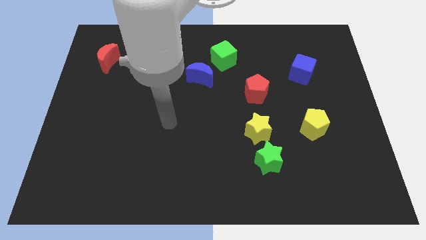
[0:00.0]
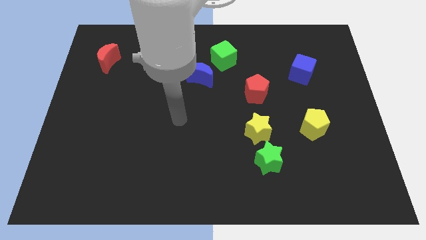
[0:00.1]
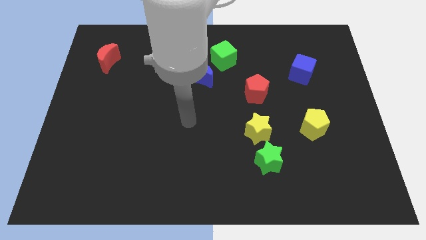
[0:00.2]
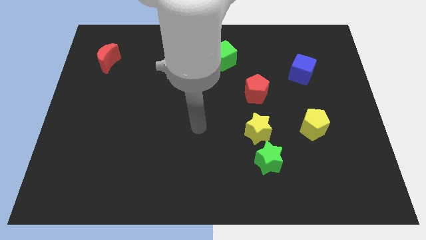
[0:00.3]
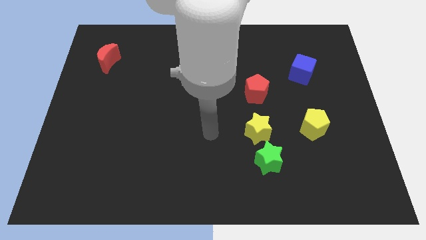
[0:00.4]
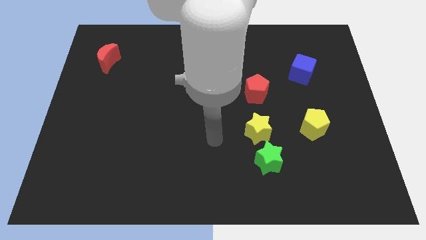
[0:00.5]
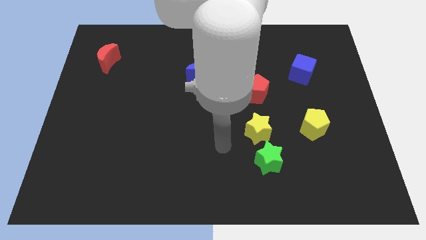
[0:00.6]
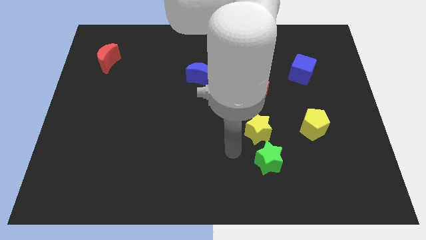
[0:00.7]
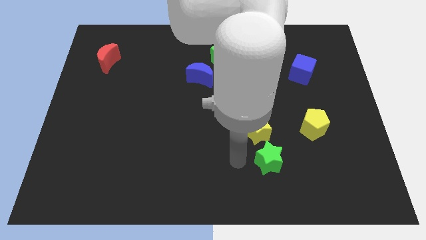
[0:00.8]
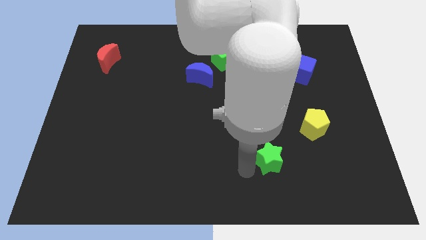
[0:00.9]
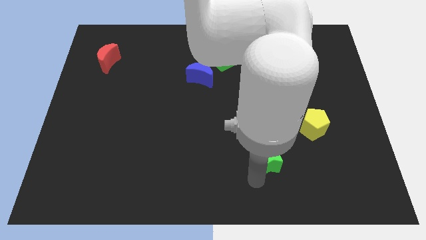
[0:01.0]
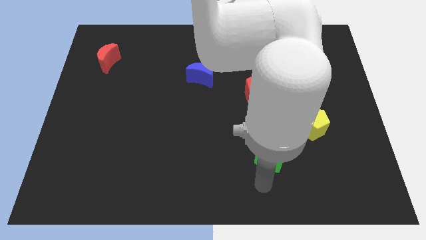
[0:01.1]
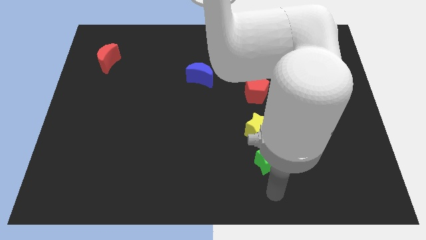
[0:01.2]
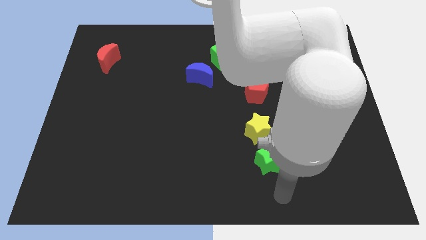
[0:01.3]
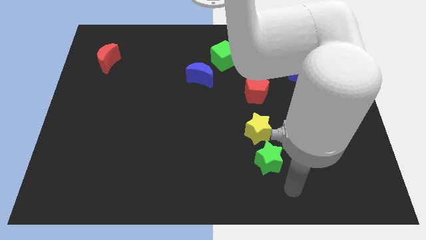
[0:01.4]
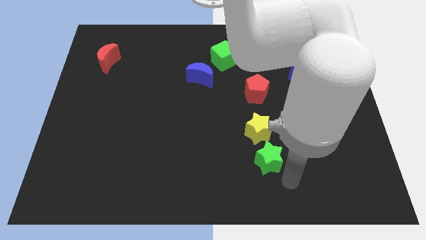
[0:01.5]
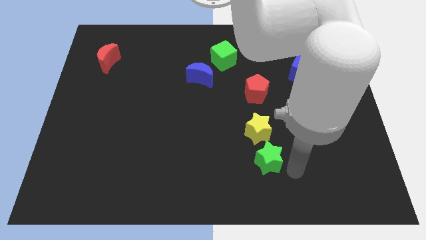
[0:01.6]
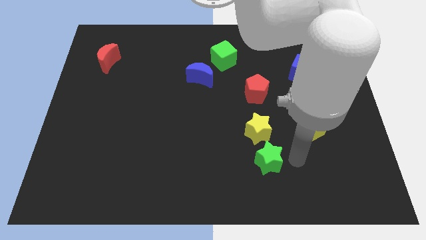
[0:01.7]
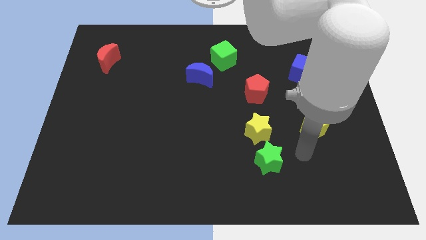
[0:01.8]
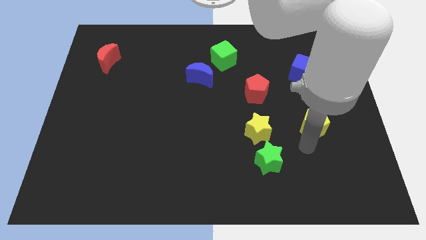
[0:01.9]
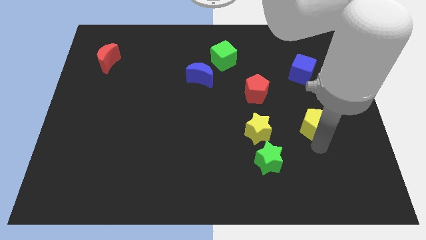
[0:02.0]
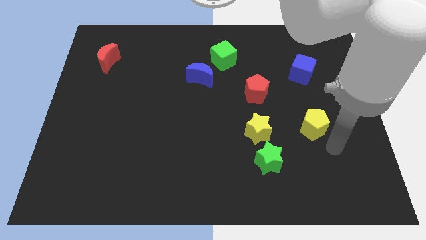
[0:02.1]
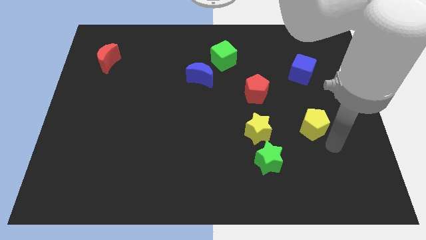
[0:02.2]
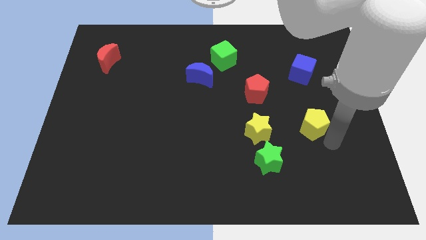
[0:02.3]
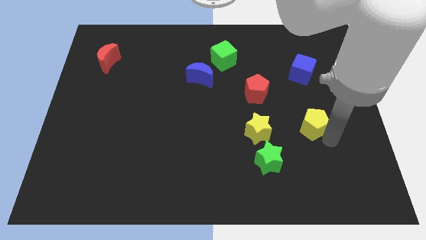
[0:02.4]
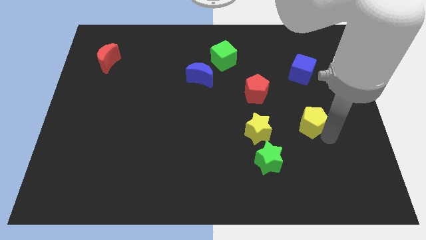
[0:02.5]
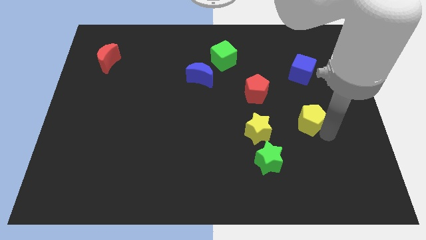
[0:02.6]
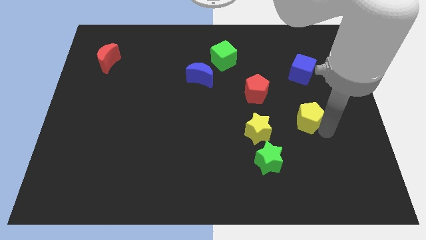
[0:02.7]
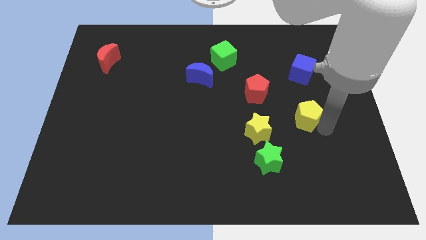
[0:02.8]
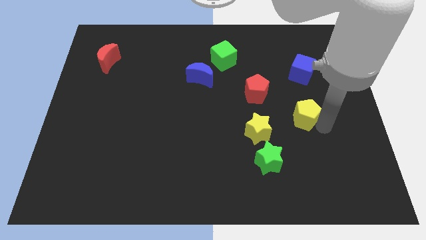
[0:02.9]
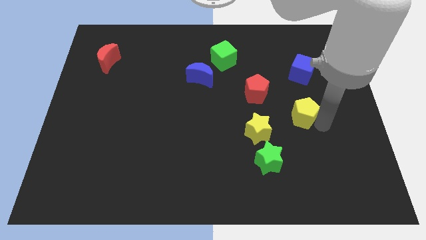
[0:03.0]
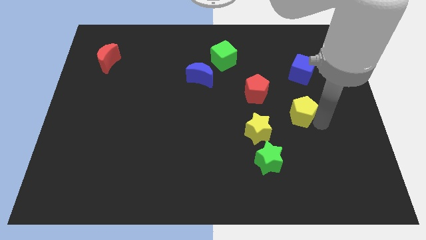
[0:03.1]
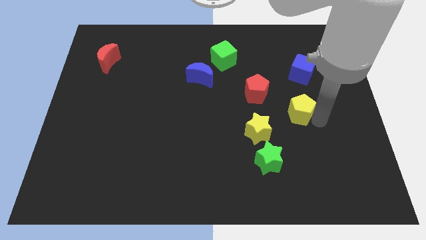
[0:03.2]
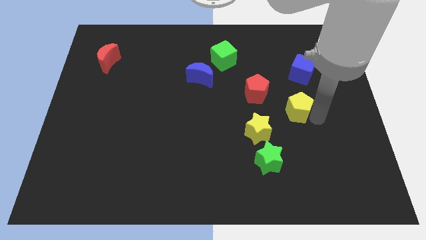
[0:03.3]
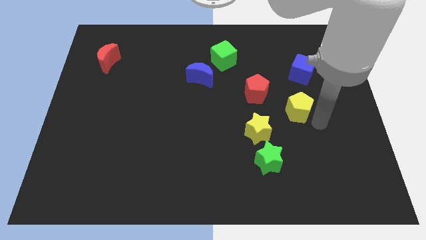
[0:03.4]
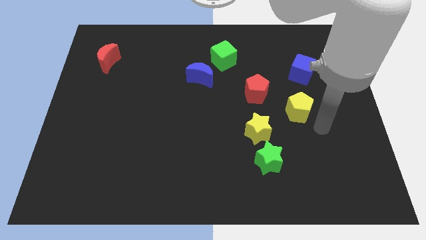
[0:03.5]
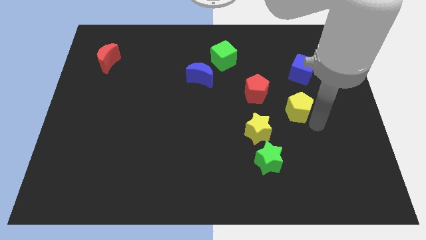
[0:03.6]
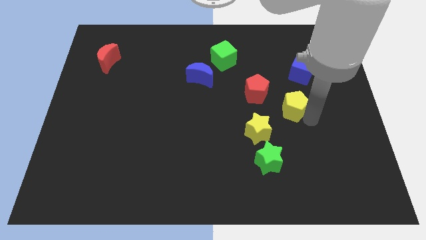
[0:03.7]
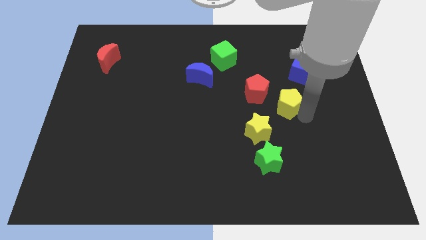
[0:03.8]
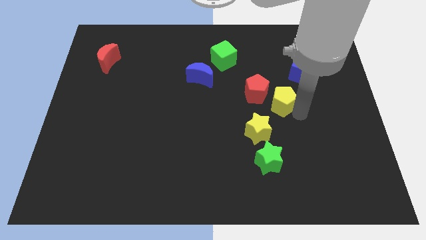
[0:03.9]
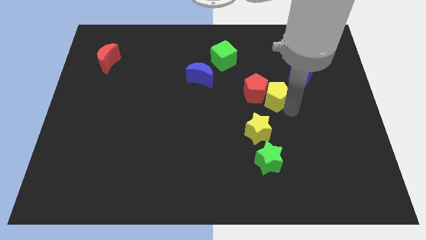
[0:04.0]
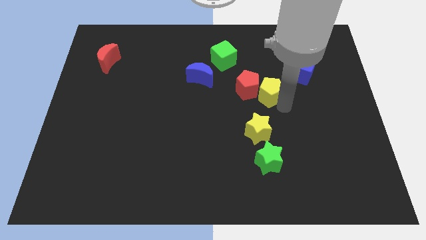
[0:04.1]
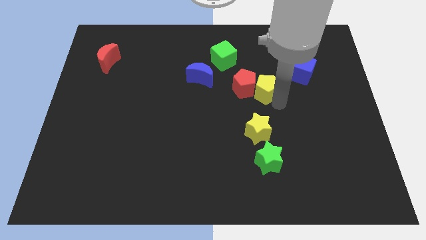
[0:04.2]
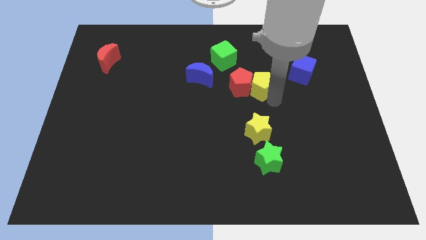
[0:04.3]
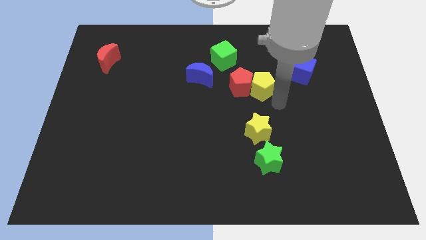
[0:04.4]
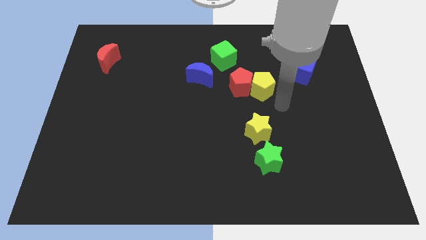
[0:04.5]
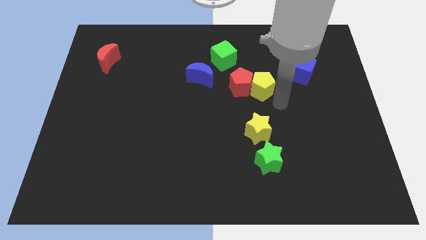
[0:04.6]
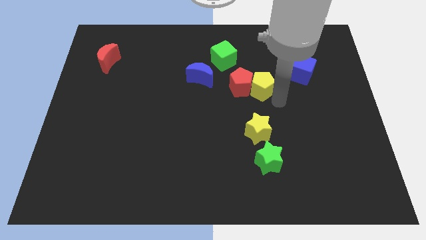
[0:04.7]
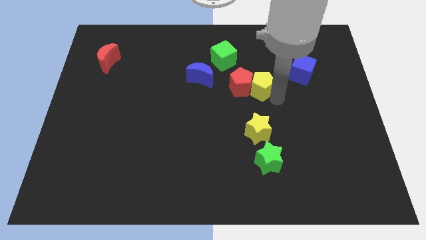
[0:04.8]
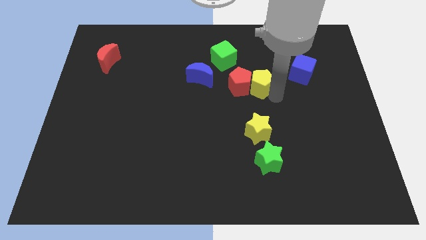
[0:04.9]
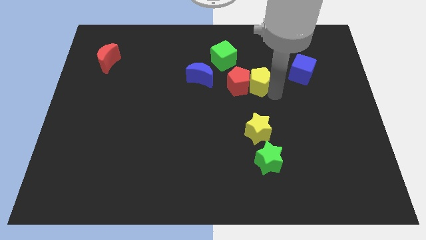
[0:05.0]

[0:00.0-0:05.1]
push the yellow pentagon to the bottom right side of the green cube

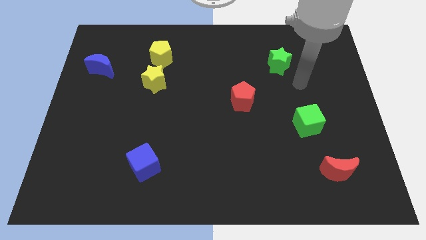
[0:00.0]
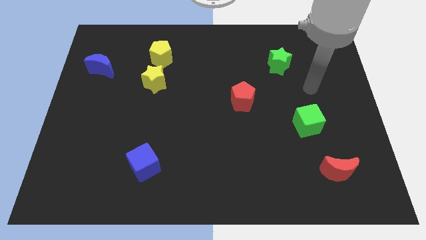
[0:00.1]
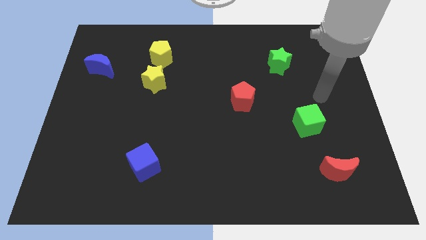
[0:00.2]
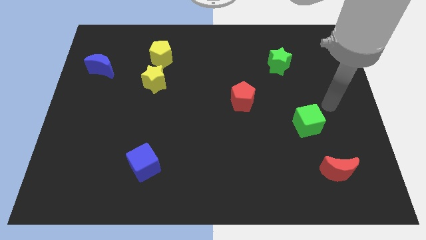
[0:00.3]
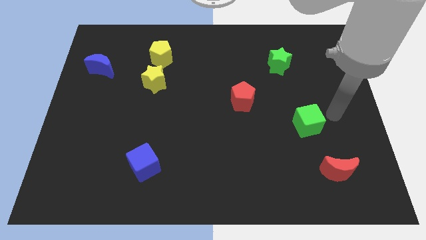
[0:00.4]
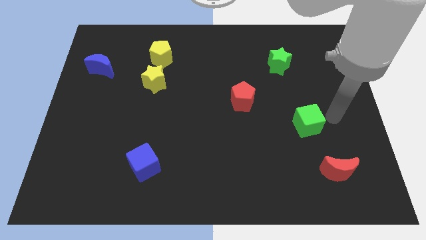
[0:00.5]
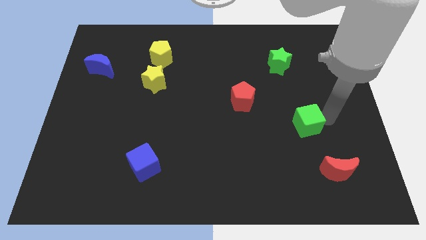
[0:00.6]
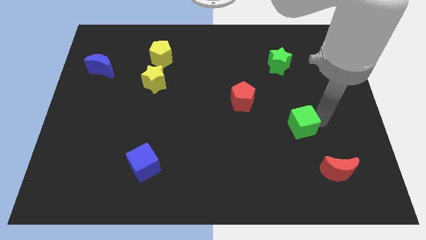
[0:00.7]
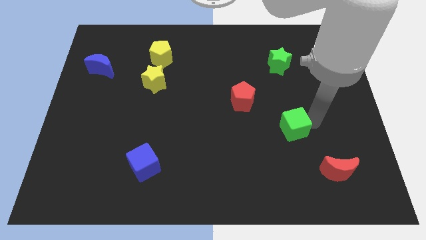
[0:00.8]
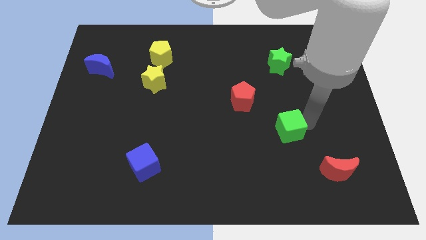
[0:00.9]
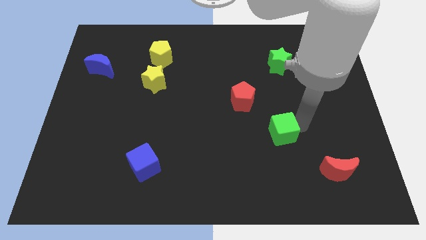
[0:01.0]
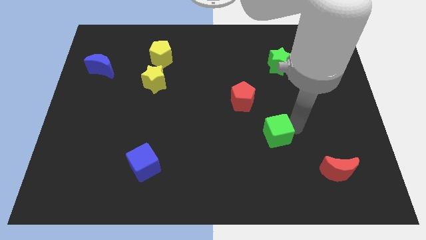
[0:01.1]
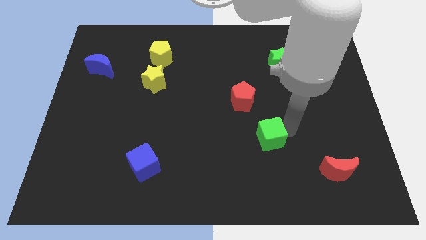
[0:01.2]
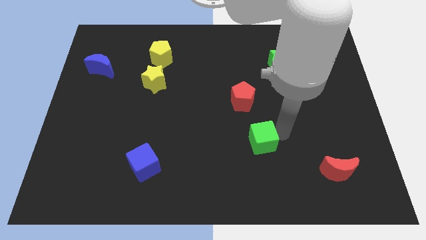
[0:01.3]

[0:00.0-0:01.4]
move the green cube to the bottom side of the red pentagon
